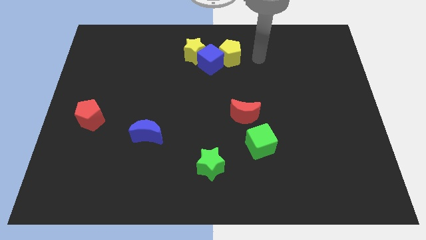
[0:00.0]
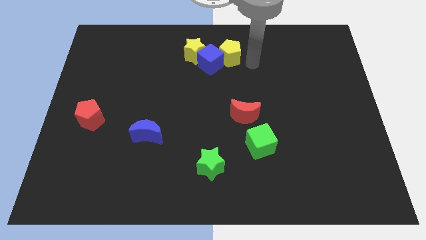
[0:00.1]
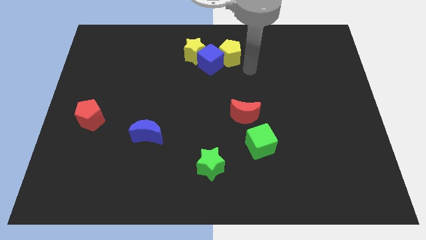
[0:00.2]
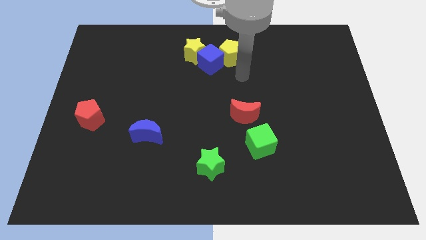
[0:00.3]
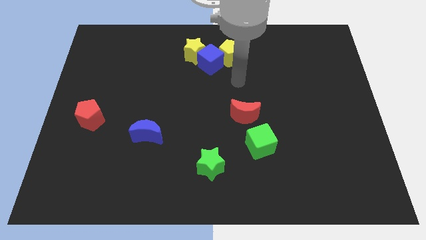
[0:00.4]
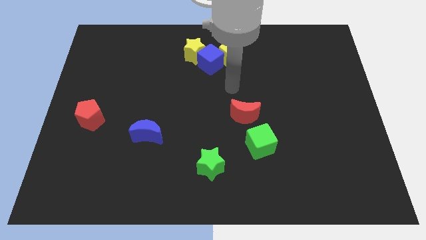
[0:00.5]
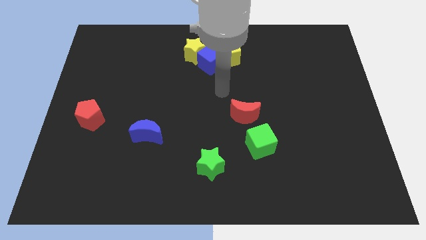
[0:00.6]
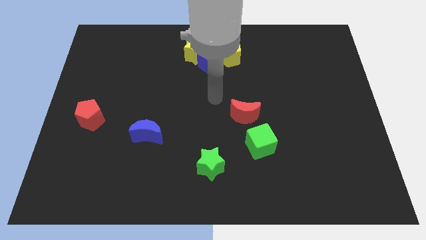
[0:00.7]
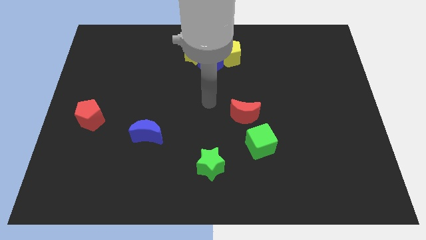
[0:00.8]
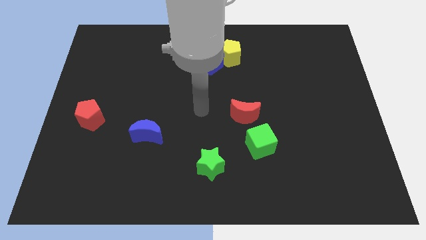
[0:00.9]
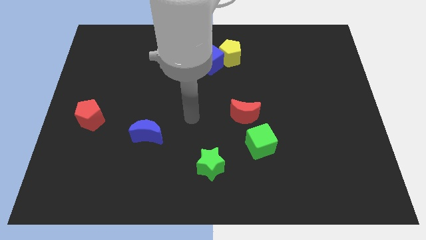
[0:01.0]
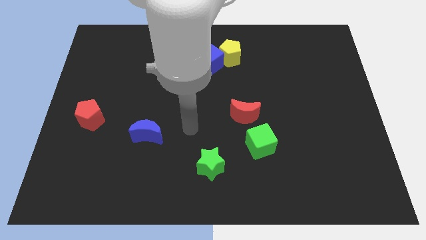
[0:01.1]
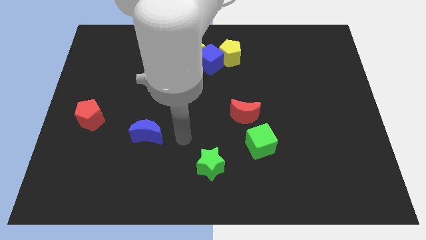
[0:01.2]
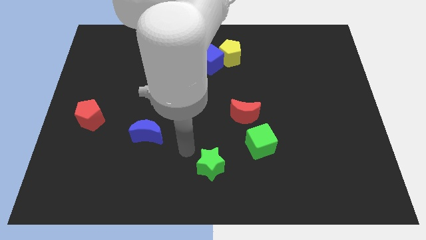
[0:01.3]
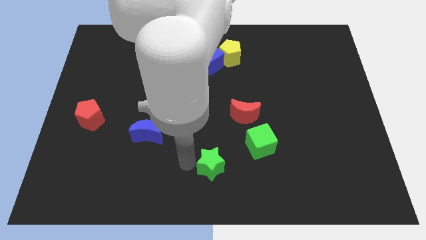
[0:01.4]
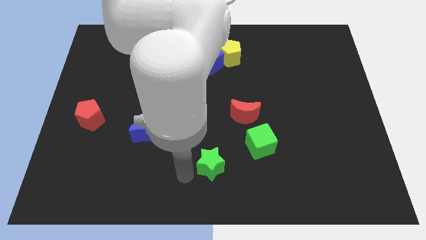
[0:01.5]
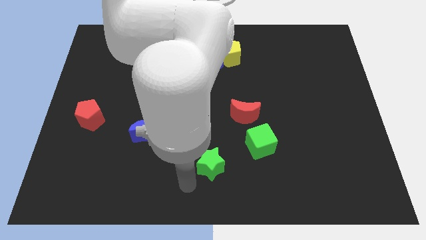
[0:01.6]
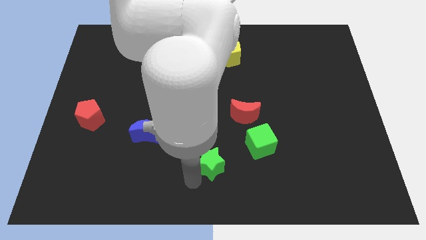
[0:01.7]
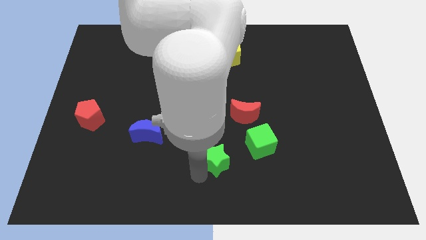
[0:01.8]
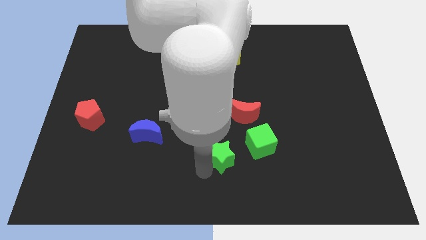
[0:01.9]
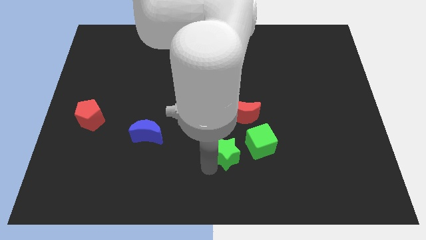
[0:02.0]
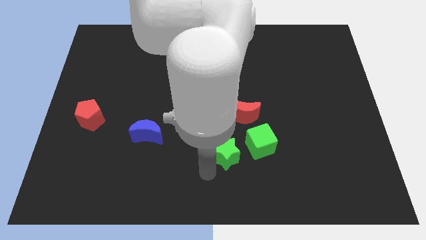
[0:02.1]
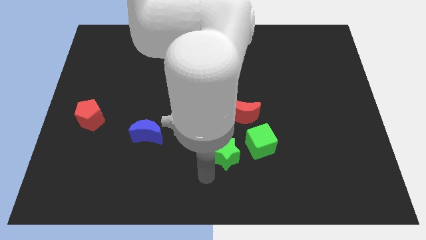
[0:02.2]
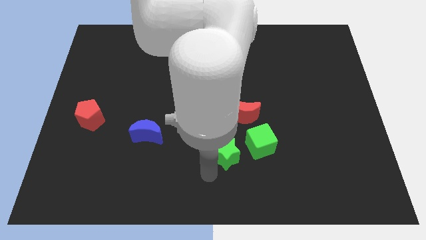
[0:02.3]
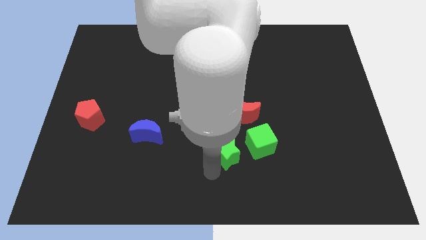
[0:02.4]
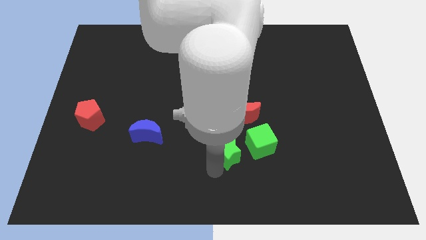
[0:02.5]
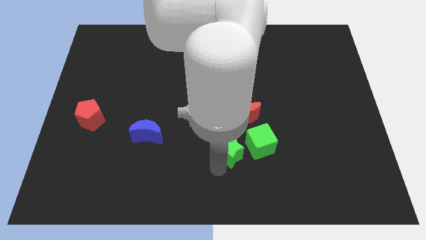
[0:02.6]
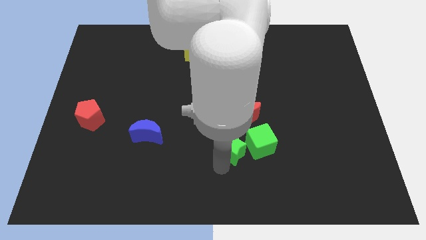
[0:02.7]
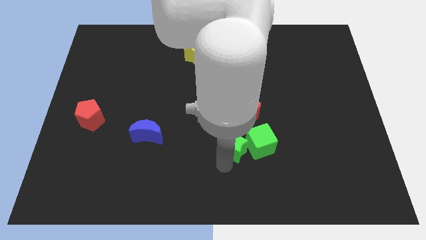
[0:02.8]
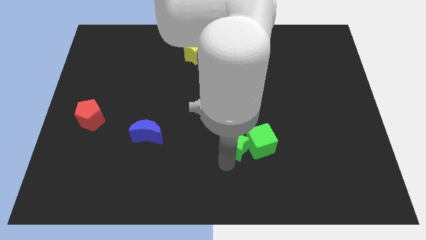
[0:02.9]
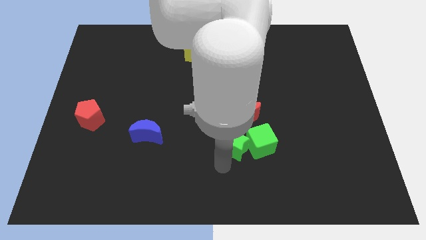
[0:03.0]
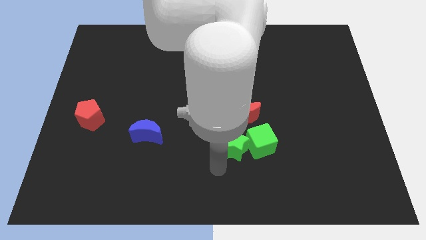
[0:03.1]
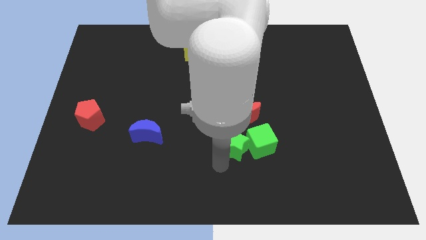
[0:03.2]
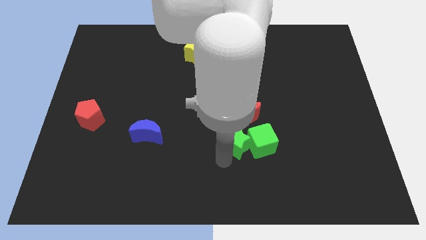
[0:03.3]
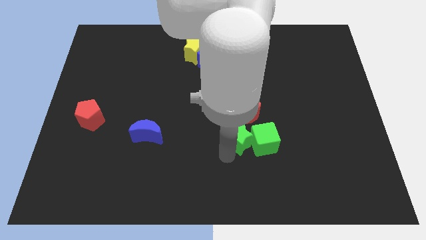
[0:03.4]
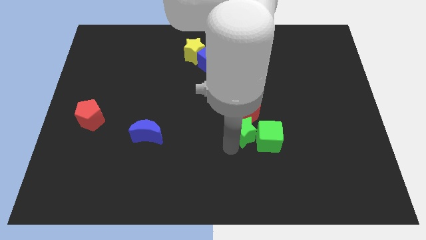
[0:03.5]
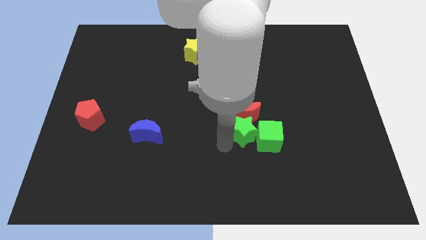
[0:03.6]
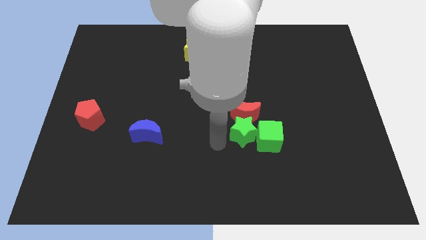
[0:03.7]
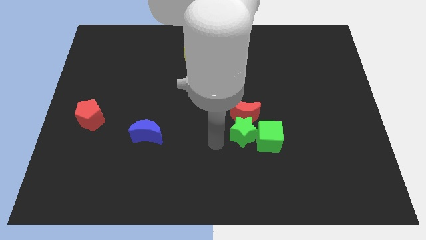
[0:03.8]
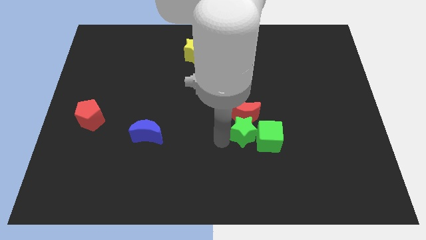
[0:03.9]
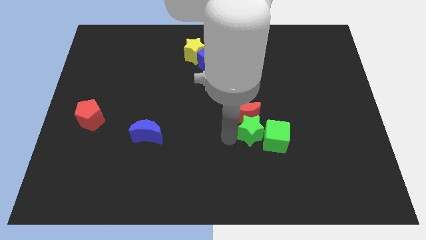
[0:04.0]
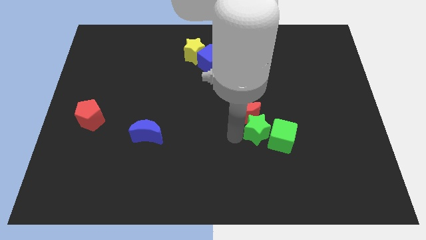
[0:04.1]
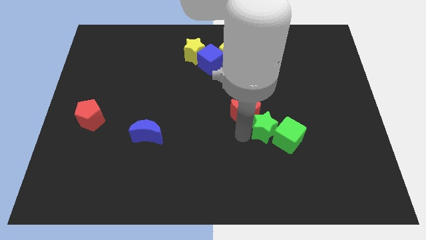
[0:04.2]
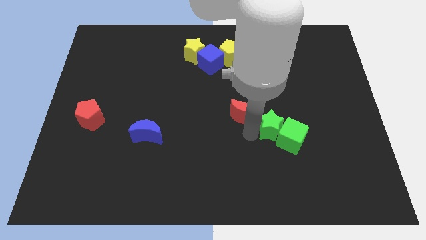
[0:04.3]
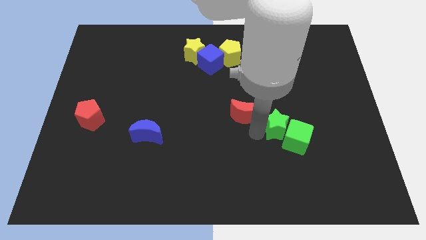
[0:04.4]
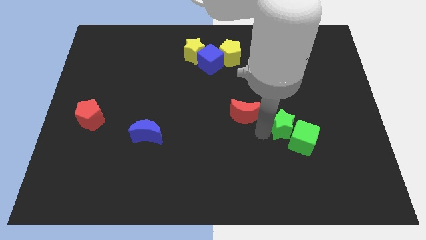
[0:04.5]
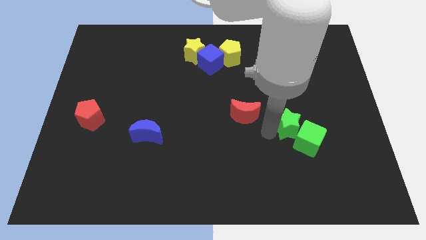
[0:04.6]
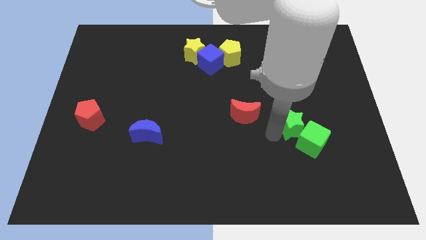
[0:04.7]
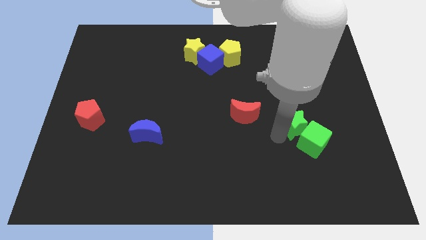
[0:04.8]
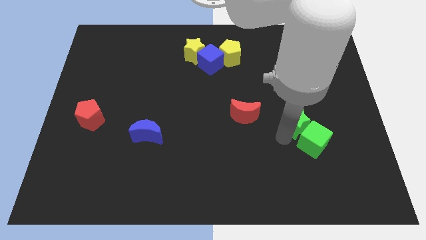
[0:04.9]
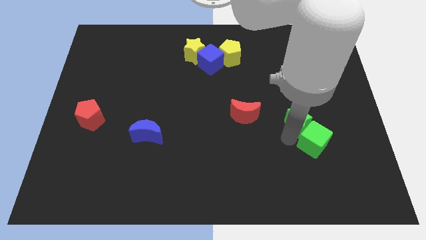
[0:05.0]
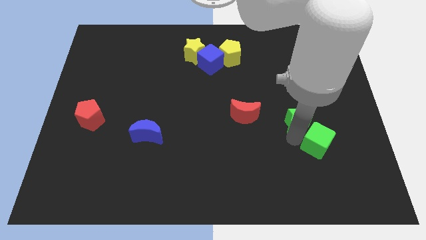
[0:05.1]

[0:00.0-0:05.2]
slide the green star diagonally up and right

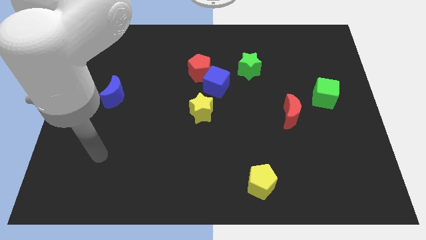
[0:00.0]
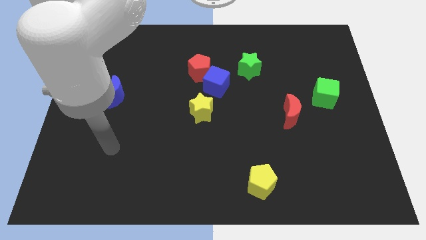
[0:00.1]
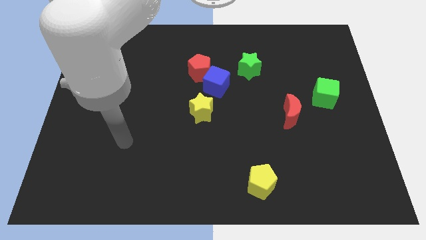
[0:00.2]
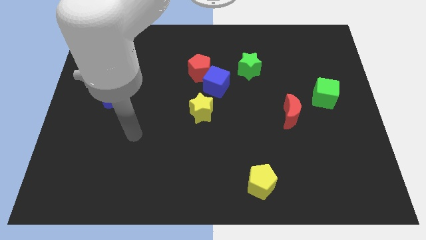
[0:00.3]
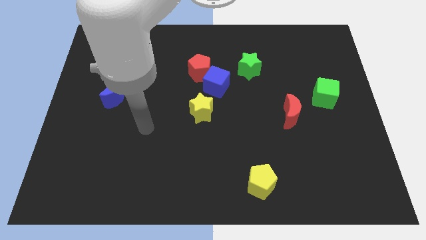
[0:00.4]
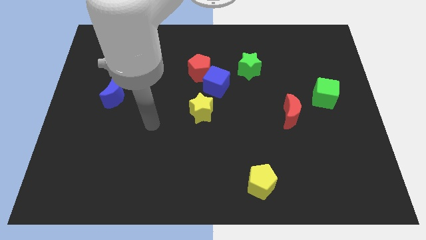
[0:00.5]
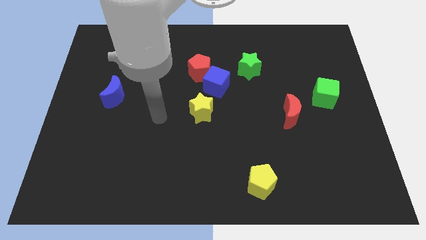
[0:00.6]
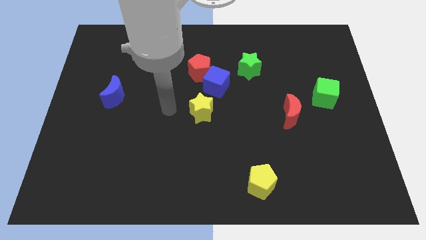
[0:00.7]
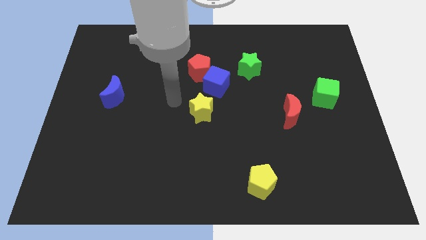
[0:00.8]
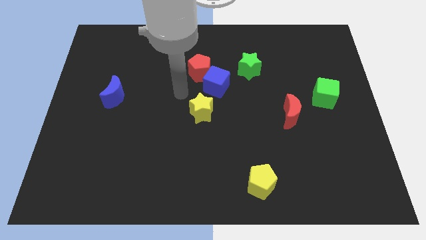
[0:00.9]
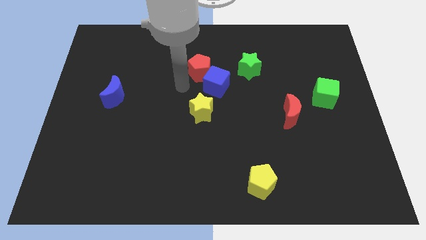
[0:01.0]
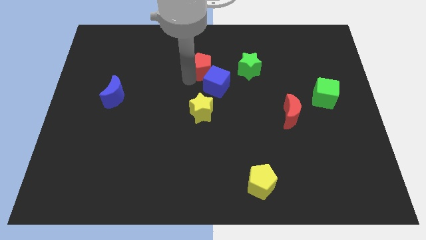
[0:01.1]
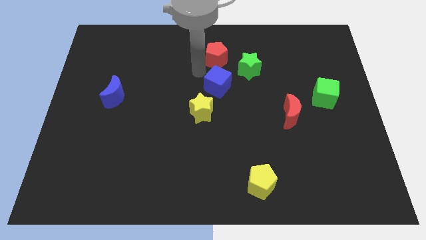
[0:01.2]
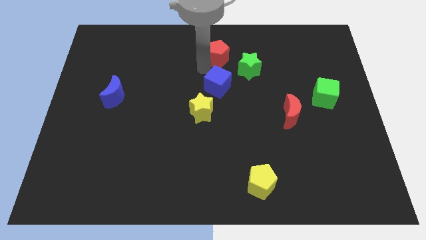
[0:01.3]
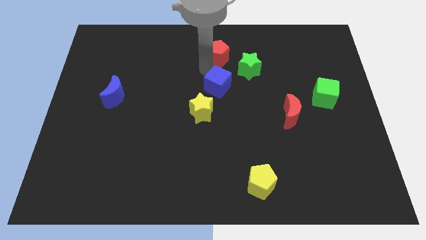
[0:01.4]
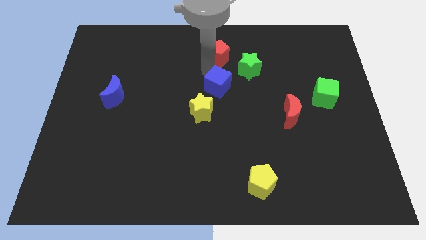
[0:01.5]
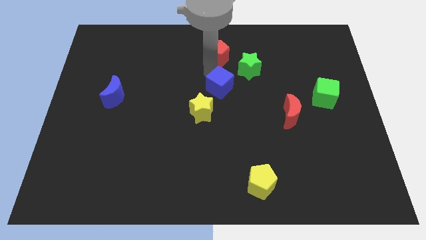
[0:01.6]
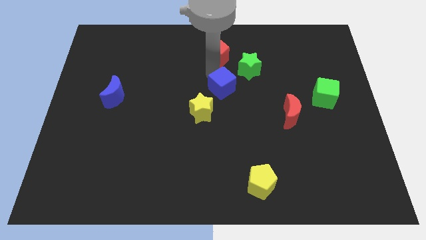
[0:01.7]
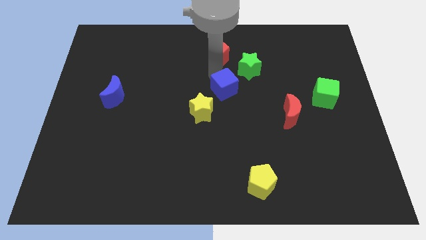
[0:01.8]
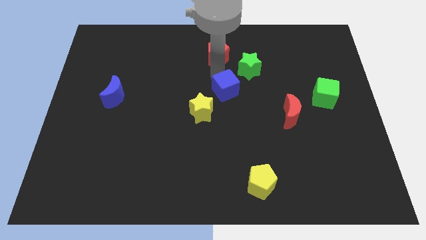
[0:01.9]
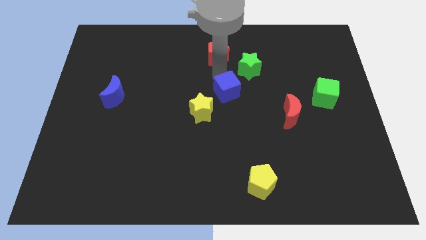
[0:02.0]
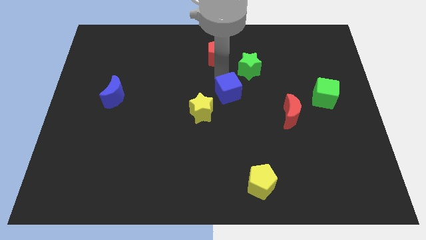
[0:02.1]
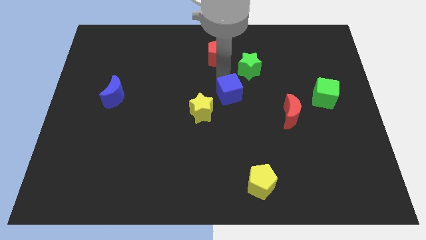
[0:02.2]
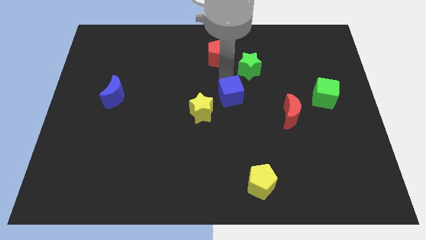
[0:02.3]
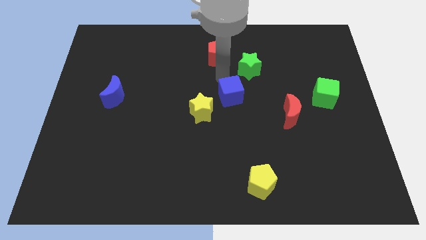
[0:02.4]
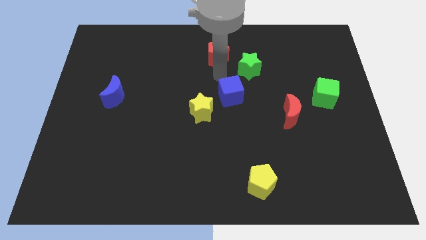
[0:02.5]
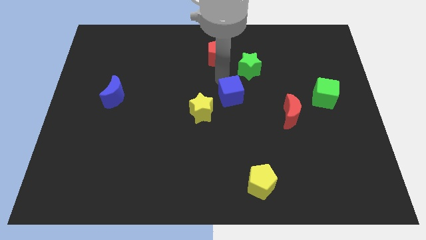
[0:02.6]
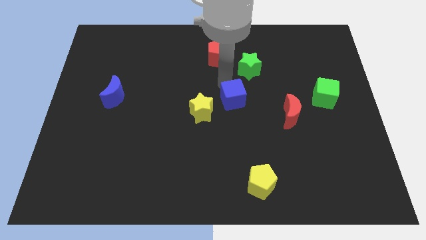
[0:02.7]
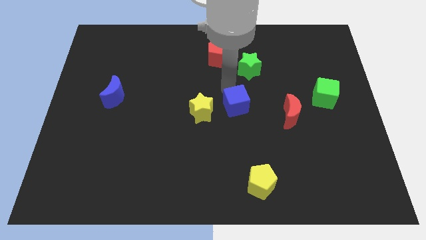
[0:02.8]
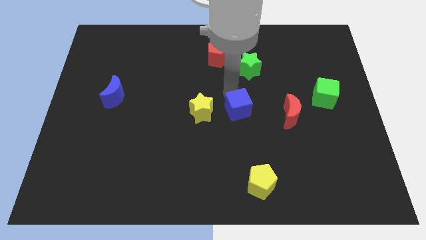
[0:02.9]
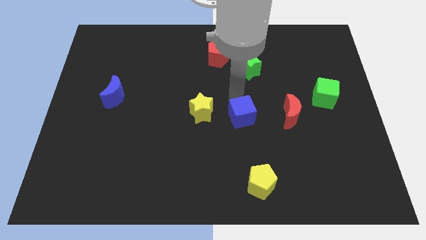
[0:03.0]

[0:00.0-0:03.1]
push the blue cube down slightly
